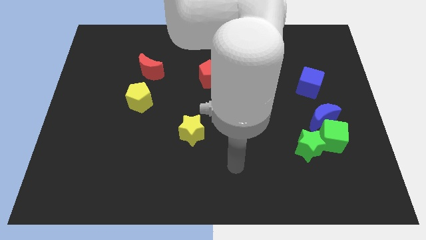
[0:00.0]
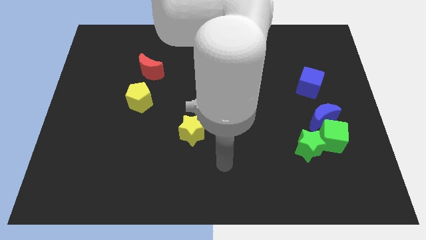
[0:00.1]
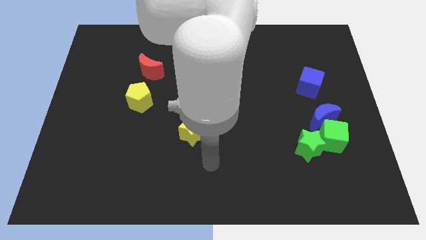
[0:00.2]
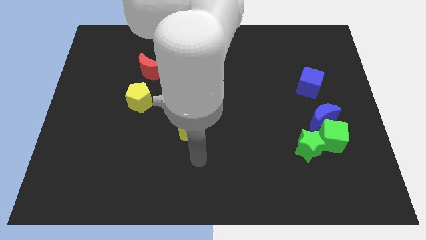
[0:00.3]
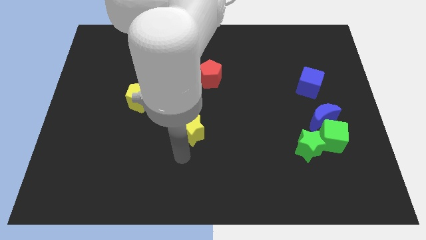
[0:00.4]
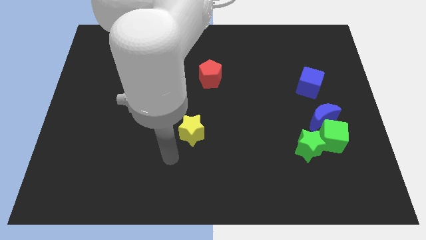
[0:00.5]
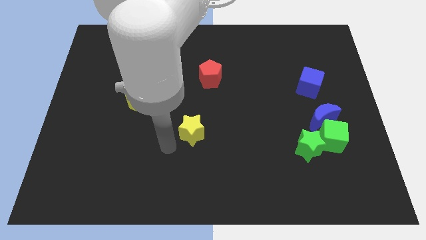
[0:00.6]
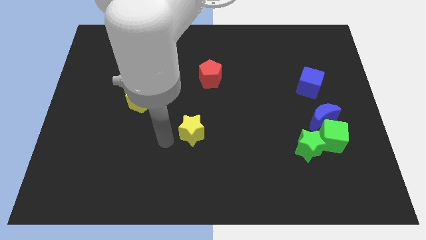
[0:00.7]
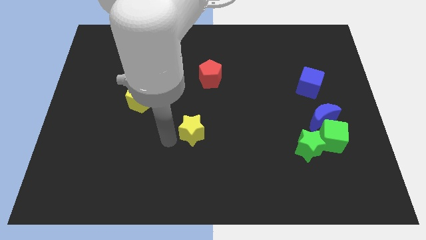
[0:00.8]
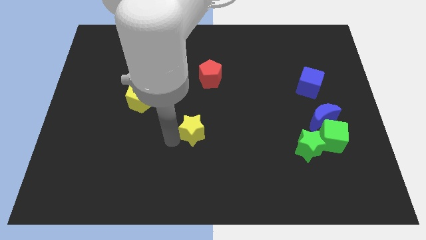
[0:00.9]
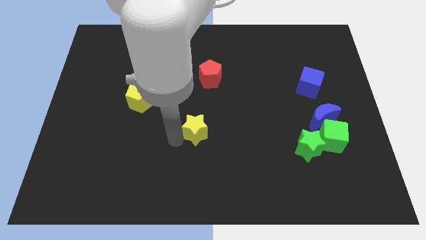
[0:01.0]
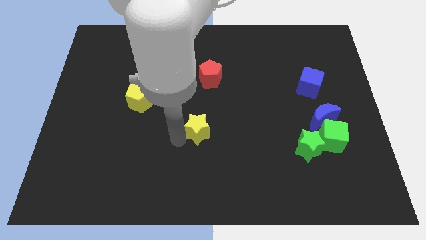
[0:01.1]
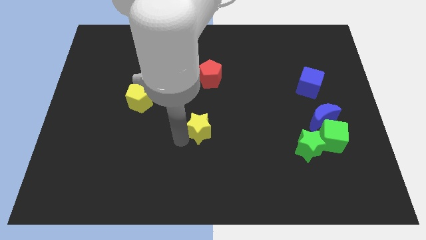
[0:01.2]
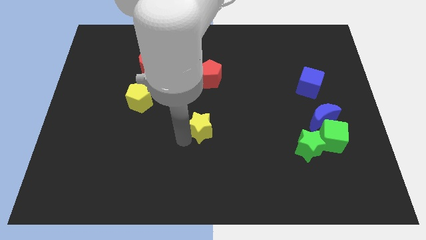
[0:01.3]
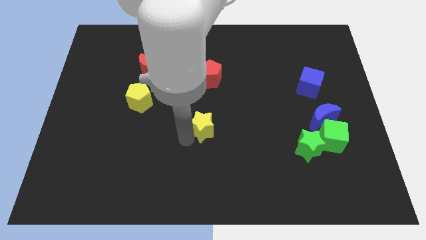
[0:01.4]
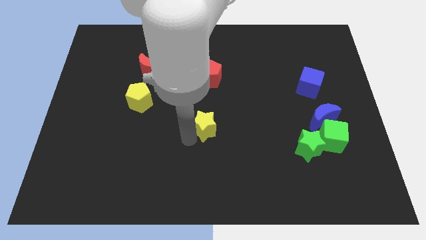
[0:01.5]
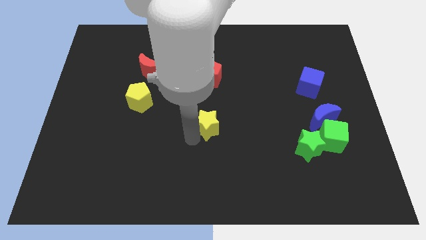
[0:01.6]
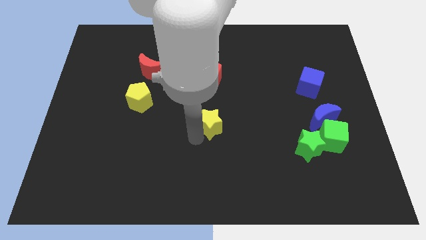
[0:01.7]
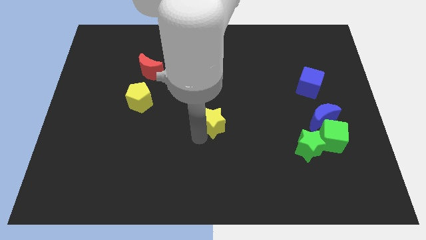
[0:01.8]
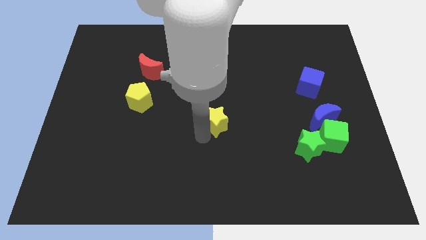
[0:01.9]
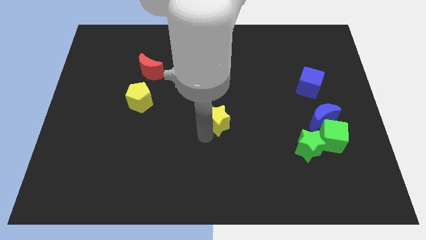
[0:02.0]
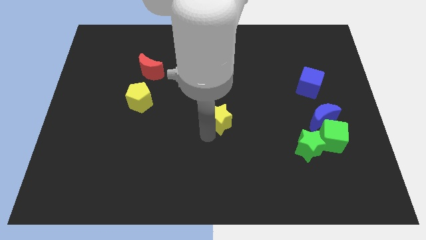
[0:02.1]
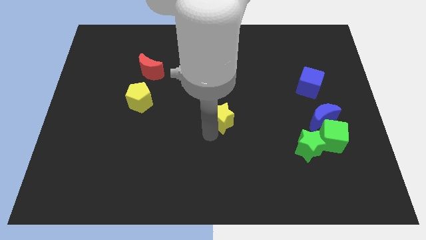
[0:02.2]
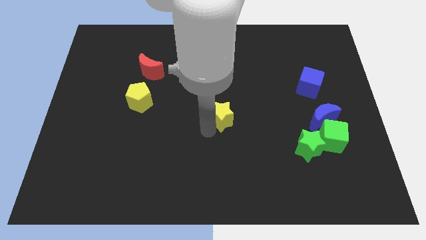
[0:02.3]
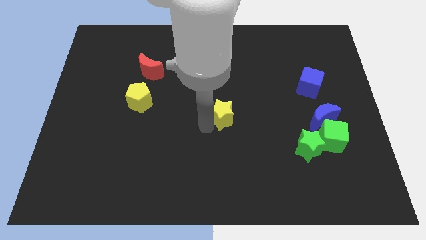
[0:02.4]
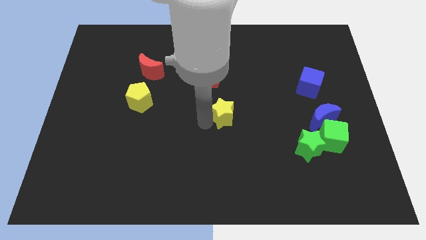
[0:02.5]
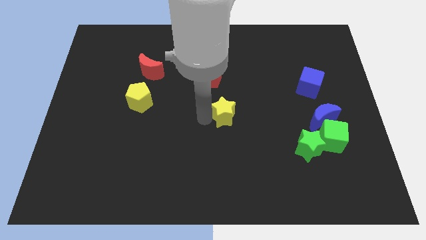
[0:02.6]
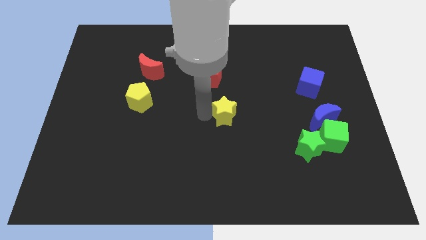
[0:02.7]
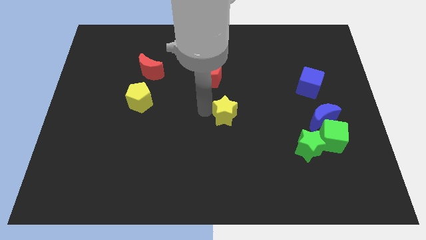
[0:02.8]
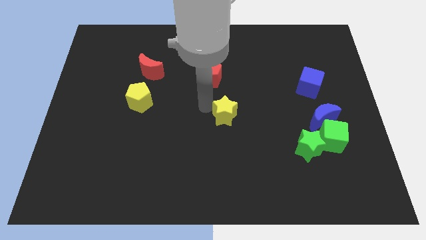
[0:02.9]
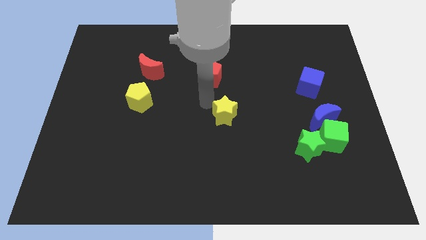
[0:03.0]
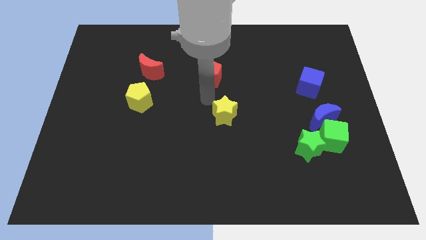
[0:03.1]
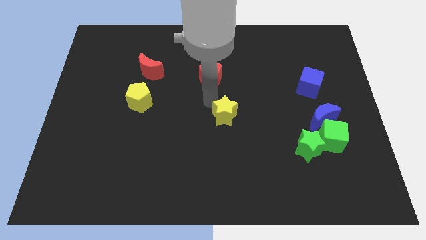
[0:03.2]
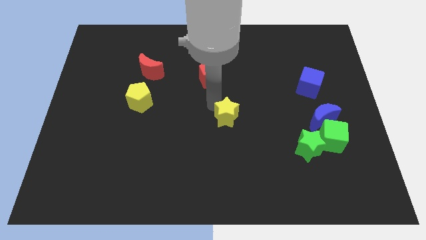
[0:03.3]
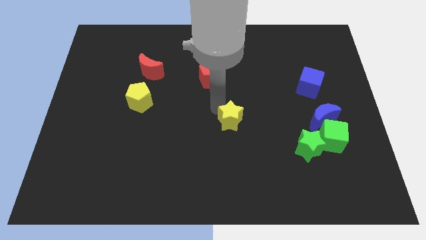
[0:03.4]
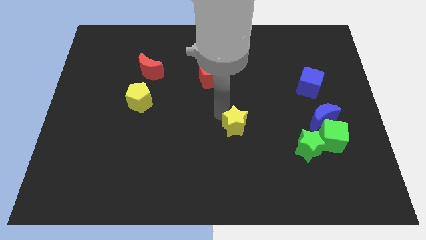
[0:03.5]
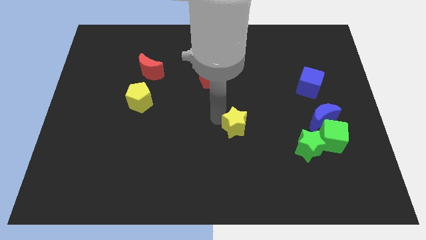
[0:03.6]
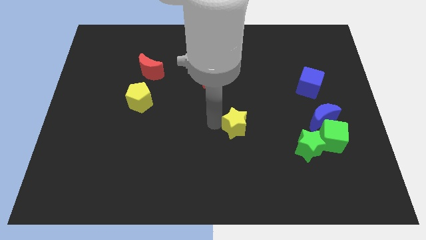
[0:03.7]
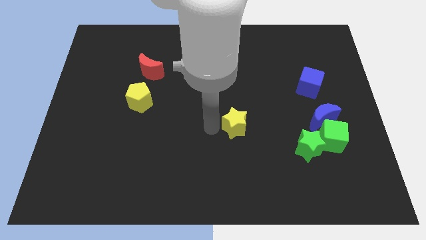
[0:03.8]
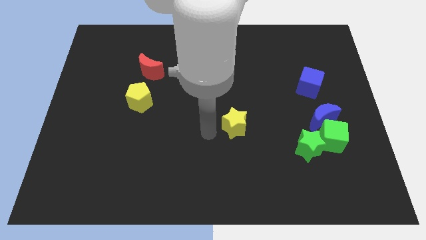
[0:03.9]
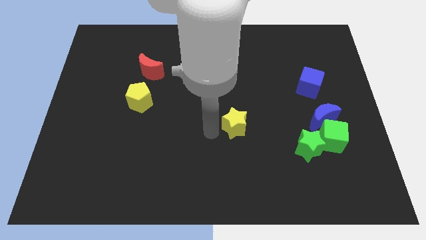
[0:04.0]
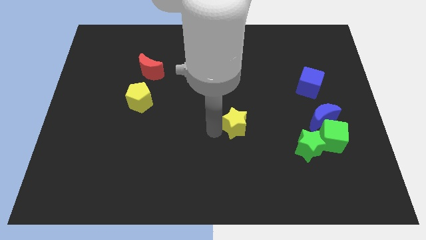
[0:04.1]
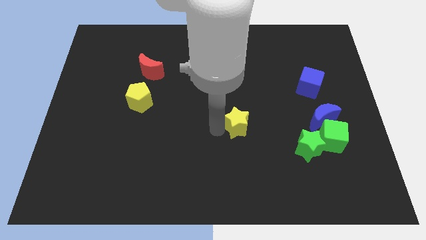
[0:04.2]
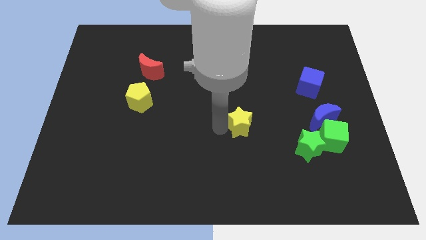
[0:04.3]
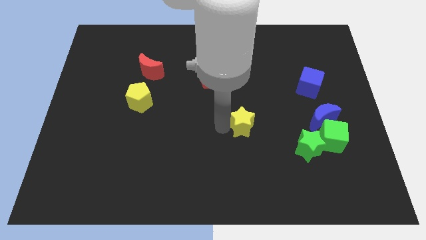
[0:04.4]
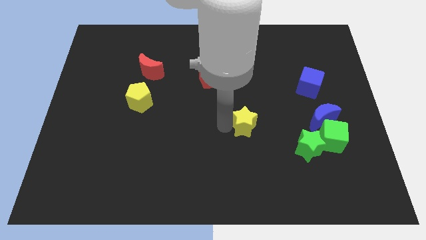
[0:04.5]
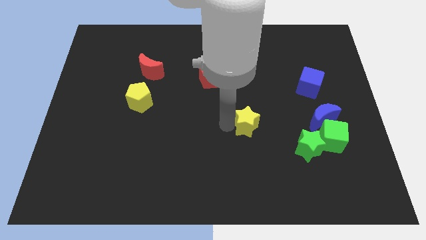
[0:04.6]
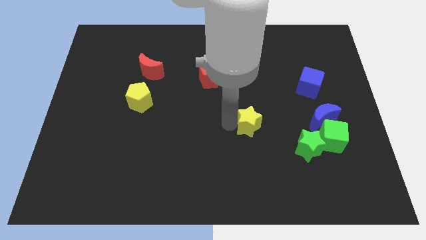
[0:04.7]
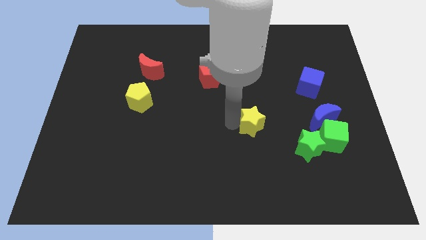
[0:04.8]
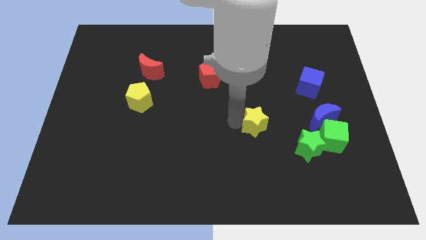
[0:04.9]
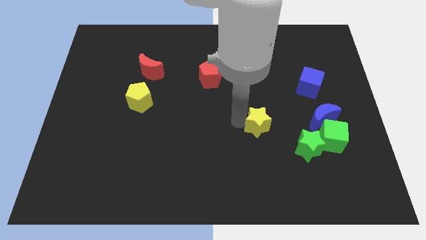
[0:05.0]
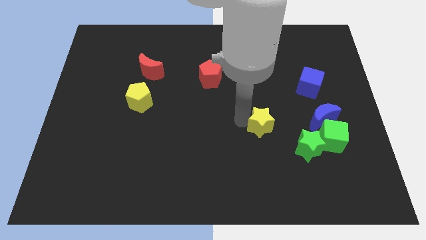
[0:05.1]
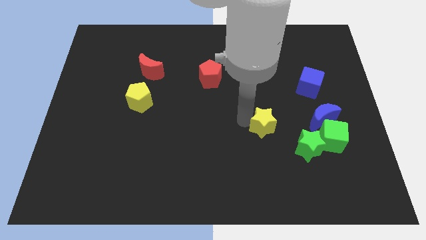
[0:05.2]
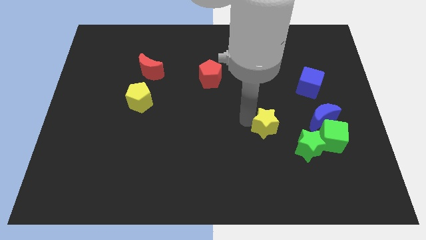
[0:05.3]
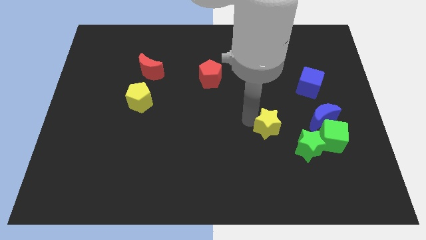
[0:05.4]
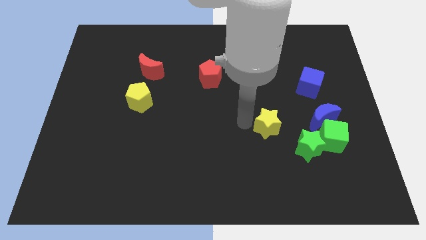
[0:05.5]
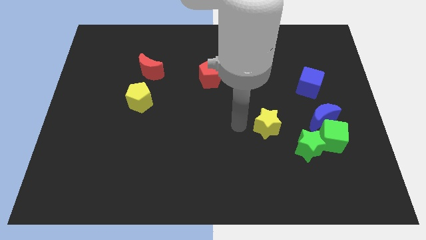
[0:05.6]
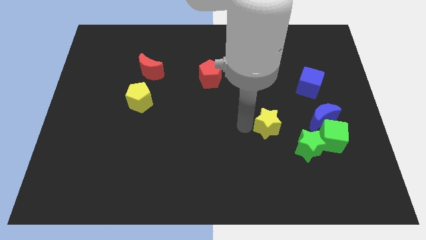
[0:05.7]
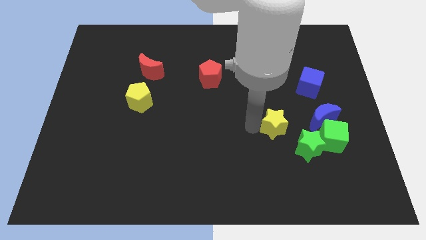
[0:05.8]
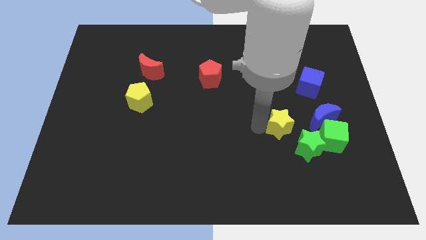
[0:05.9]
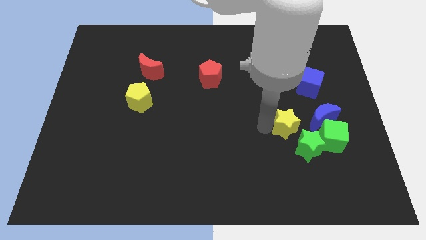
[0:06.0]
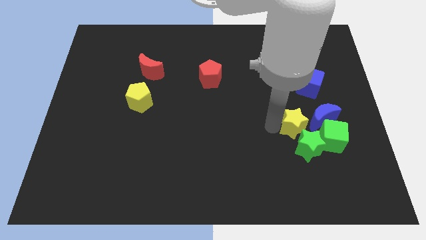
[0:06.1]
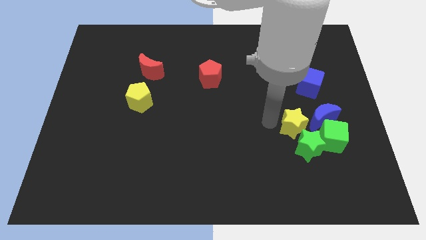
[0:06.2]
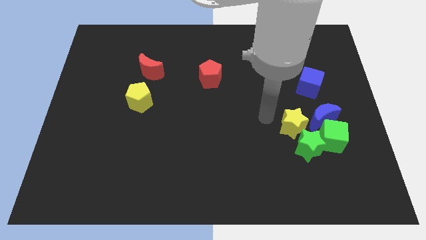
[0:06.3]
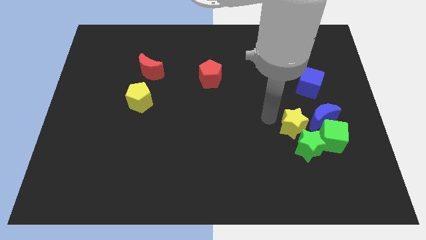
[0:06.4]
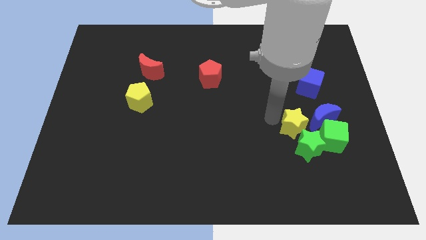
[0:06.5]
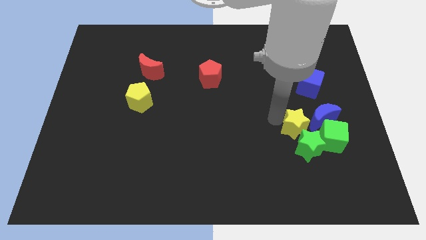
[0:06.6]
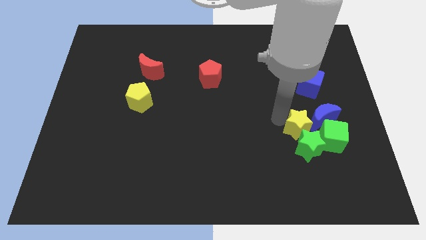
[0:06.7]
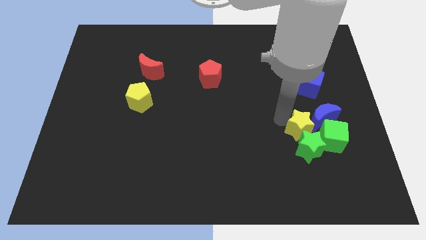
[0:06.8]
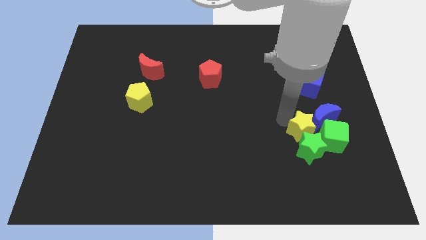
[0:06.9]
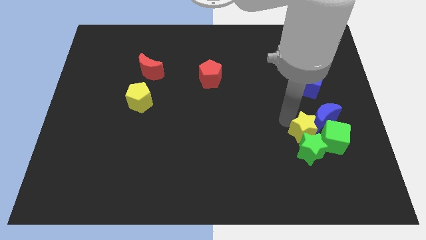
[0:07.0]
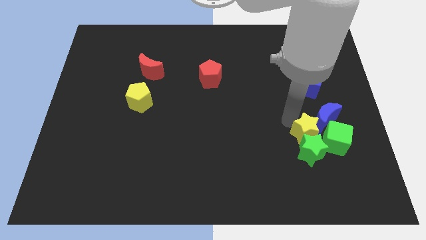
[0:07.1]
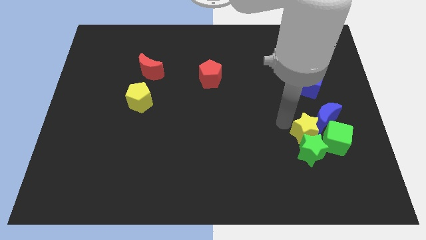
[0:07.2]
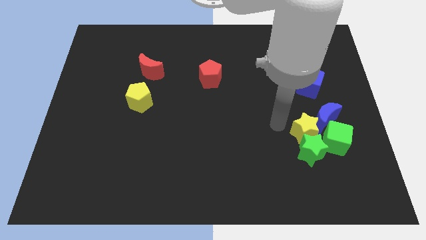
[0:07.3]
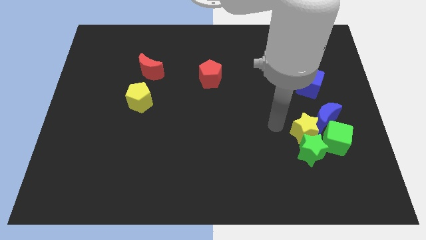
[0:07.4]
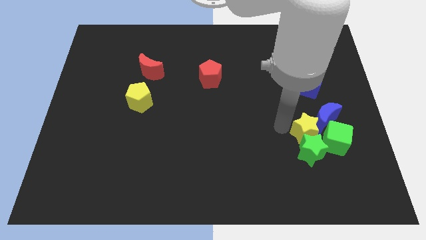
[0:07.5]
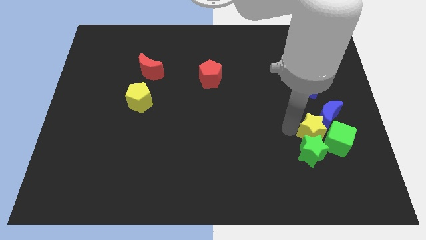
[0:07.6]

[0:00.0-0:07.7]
put the yellow star to the green cube
